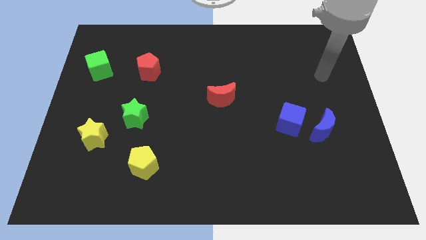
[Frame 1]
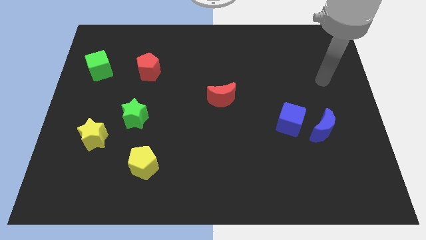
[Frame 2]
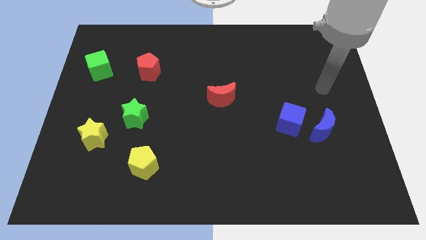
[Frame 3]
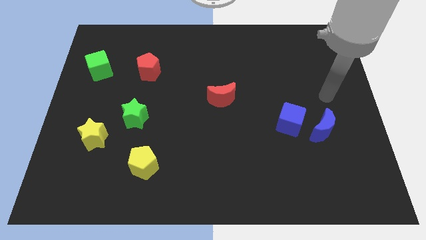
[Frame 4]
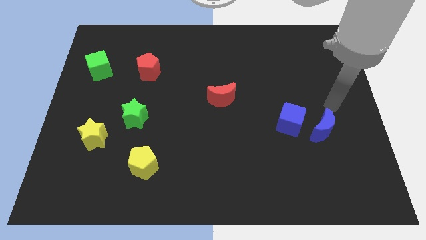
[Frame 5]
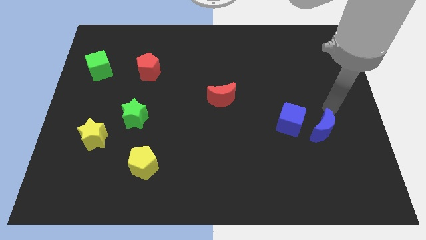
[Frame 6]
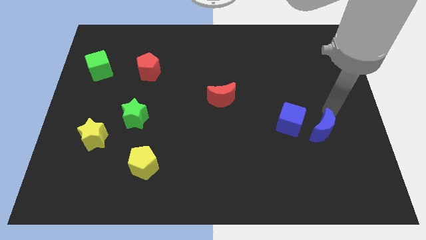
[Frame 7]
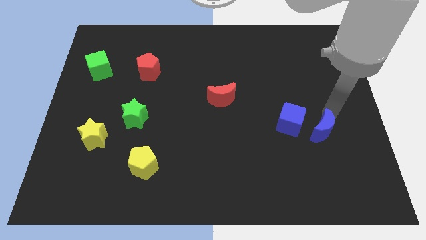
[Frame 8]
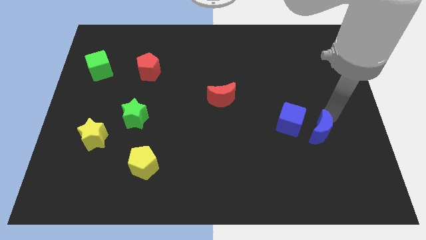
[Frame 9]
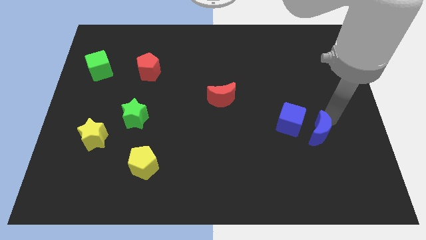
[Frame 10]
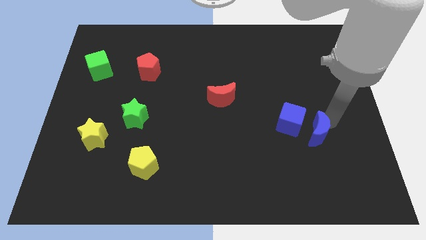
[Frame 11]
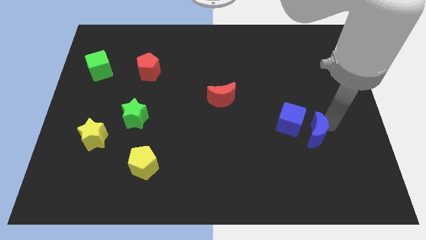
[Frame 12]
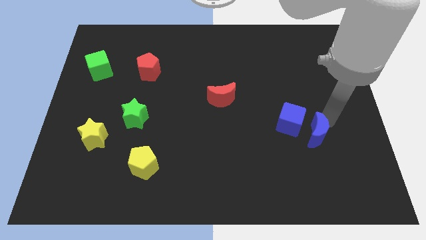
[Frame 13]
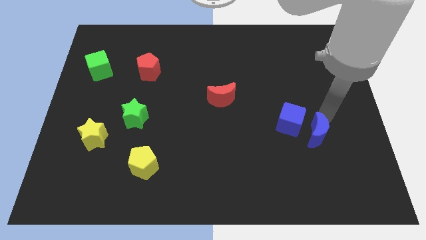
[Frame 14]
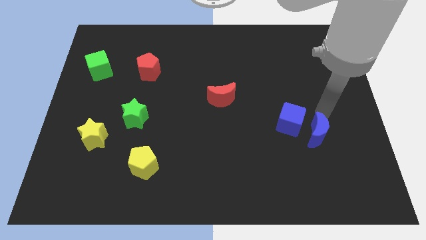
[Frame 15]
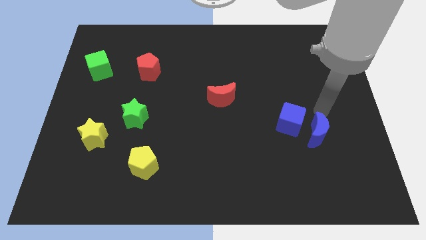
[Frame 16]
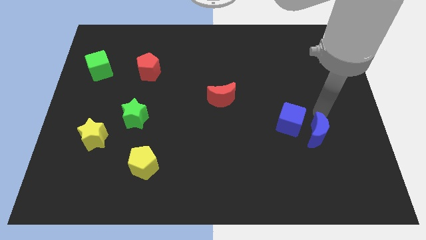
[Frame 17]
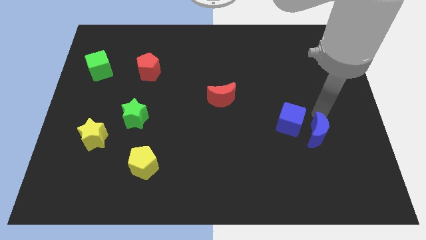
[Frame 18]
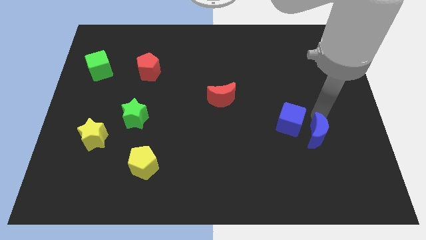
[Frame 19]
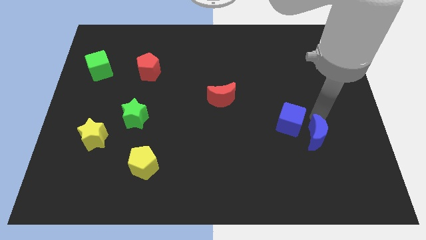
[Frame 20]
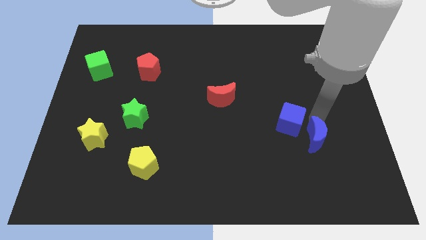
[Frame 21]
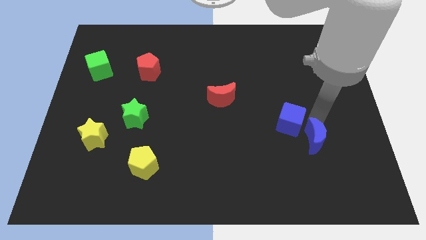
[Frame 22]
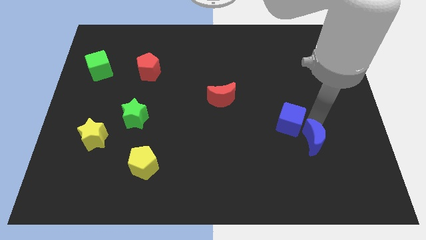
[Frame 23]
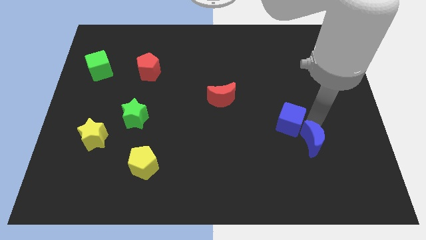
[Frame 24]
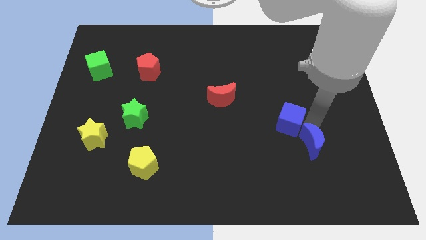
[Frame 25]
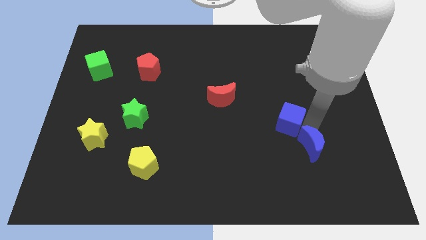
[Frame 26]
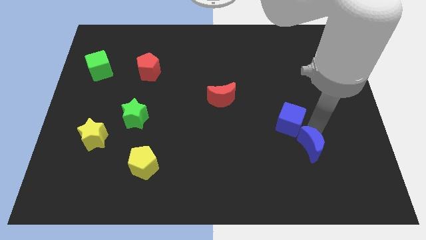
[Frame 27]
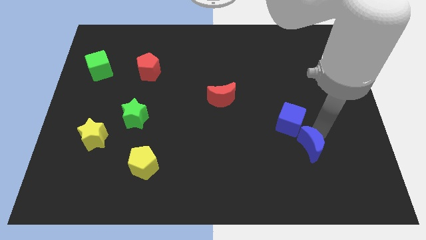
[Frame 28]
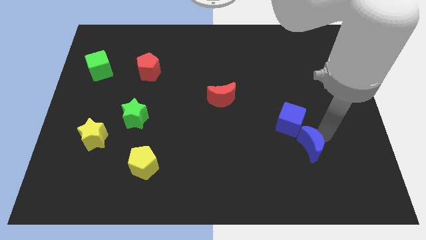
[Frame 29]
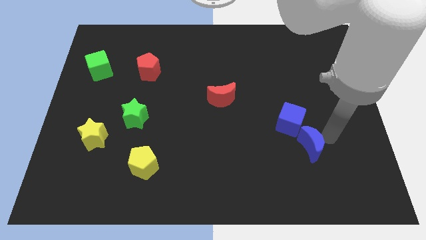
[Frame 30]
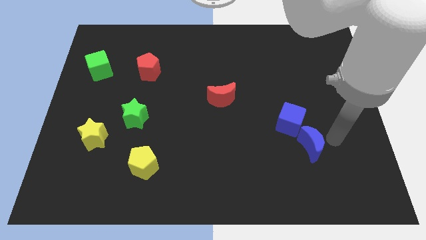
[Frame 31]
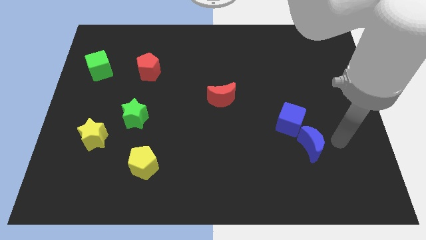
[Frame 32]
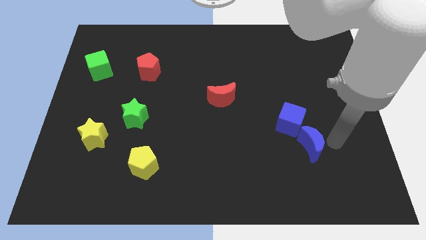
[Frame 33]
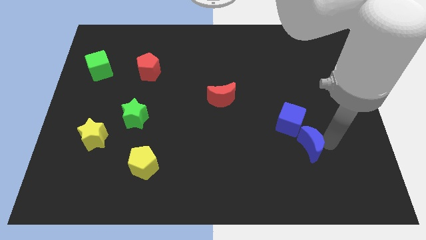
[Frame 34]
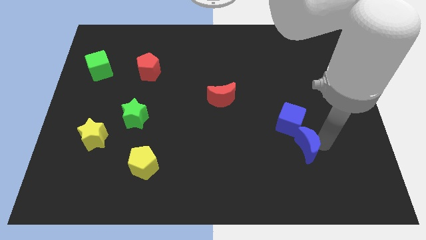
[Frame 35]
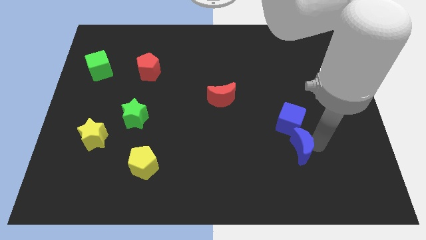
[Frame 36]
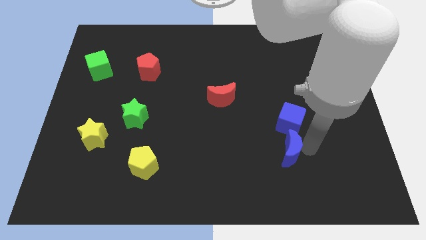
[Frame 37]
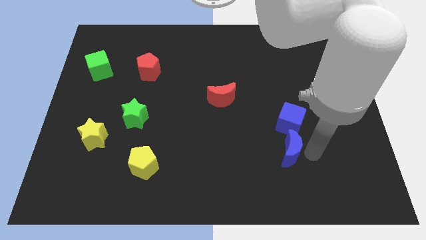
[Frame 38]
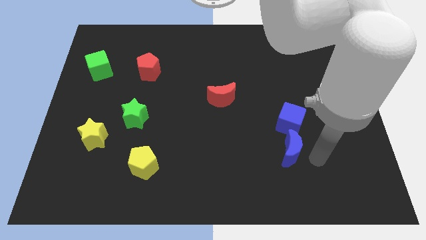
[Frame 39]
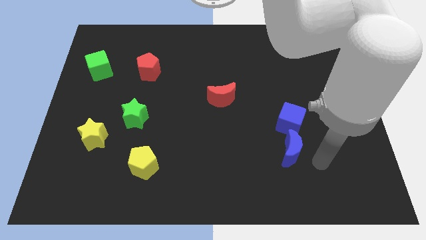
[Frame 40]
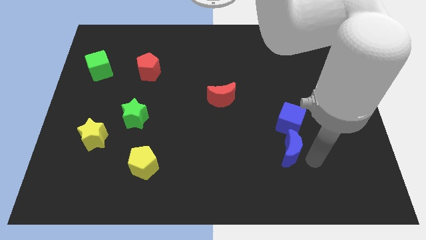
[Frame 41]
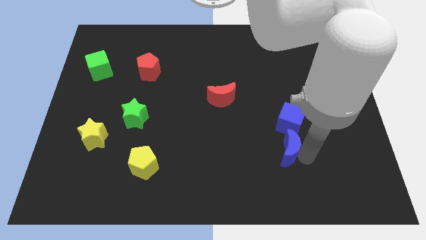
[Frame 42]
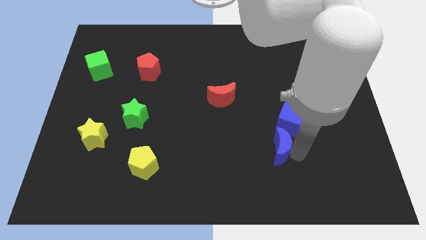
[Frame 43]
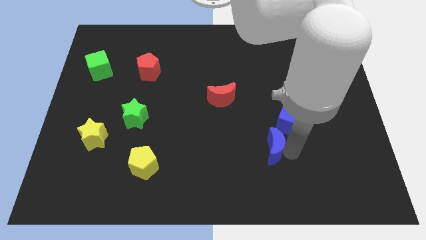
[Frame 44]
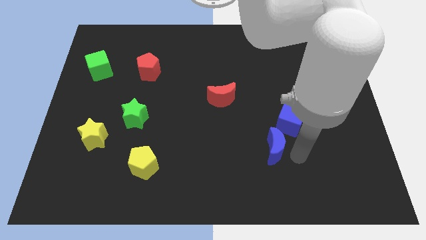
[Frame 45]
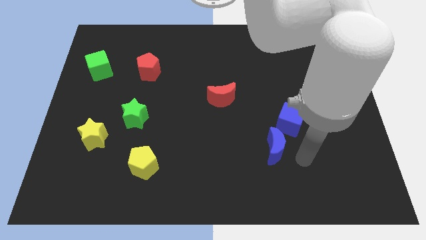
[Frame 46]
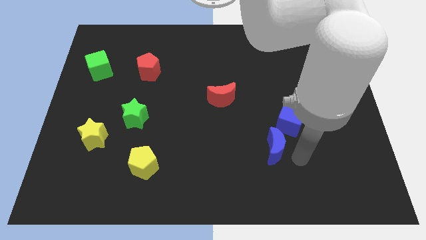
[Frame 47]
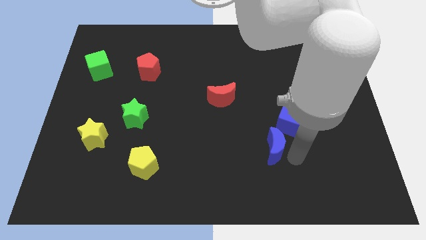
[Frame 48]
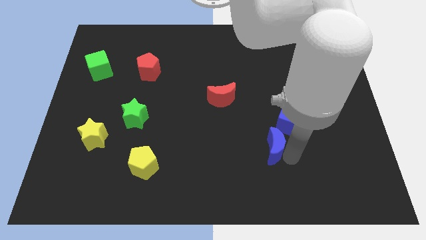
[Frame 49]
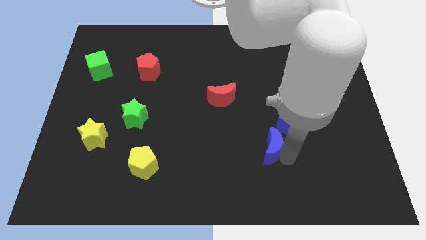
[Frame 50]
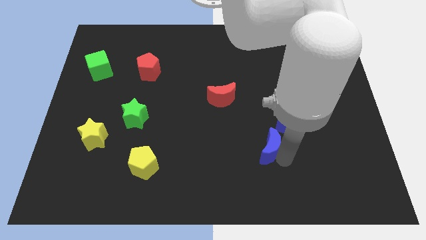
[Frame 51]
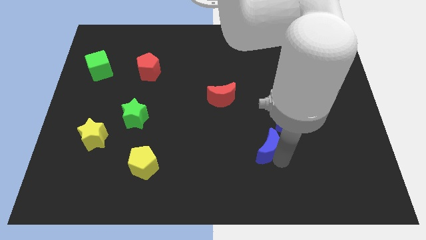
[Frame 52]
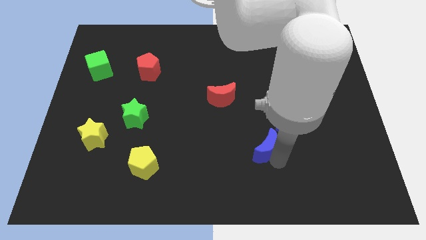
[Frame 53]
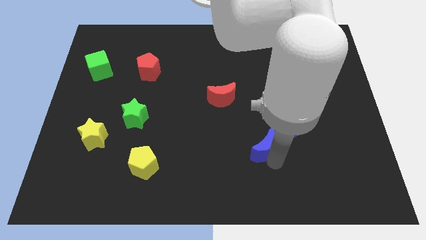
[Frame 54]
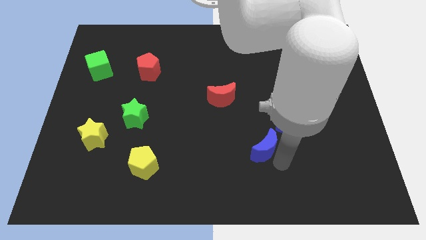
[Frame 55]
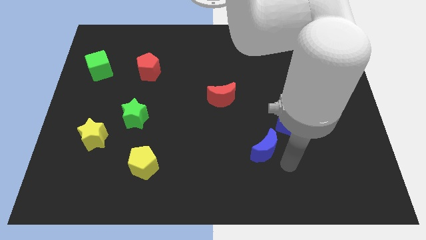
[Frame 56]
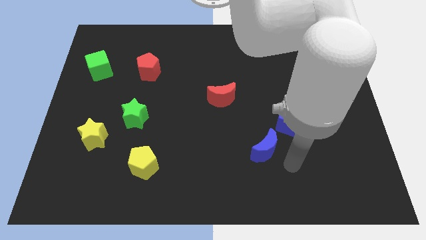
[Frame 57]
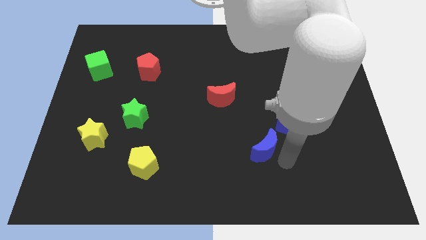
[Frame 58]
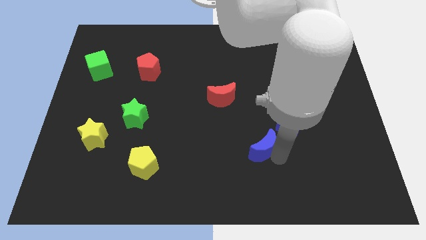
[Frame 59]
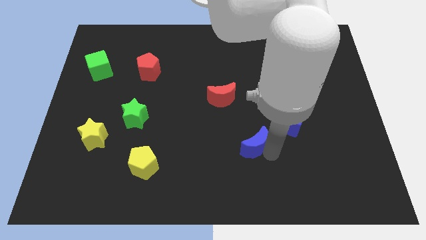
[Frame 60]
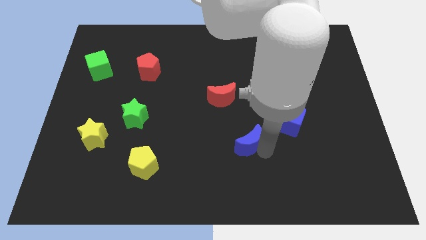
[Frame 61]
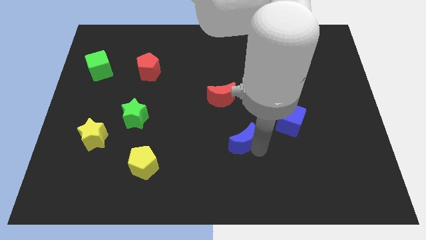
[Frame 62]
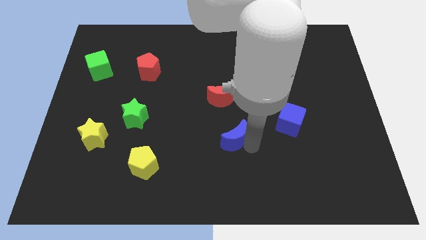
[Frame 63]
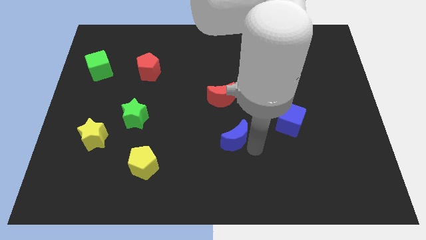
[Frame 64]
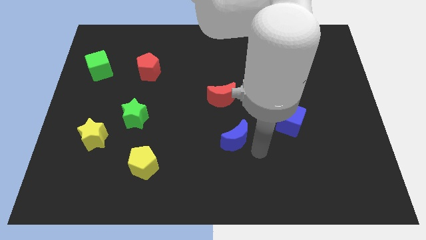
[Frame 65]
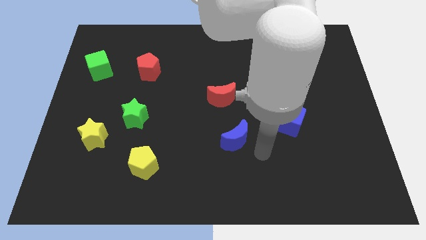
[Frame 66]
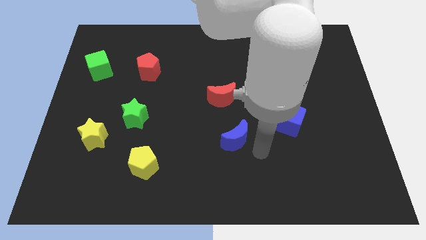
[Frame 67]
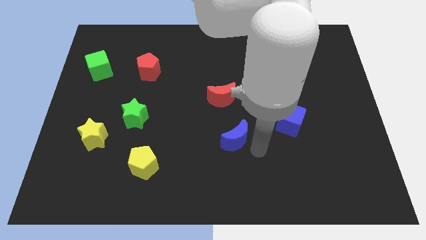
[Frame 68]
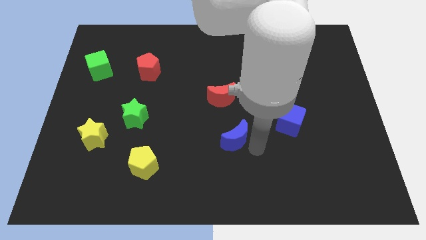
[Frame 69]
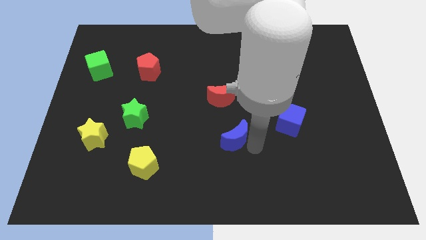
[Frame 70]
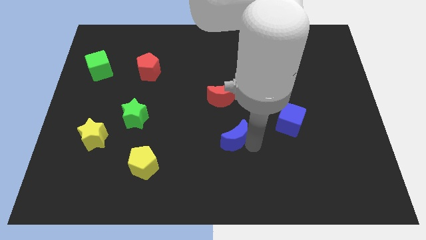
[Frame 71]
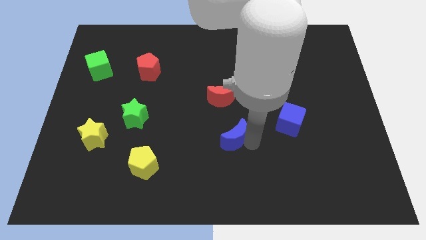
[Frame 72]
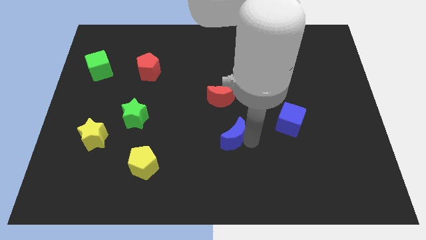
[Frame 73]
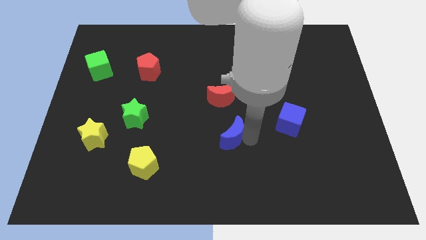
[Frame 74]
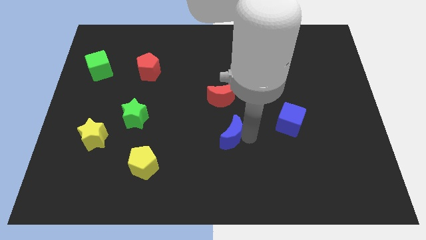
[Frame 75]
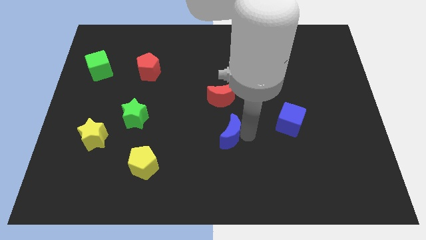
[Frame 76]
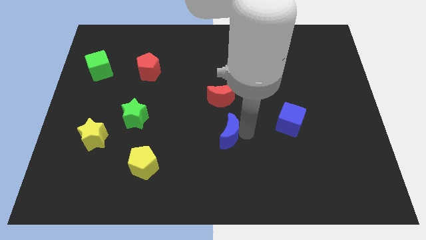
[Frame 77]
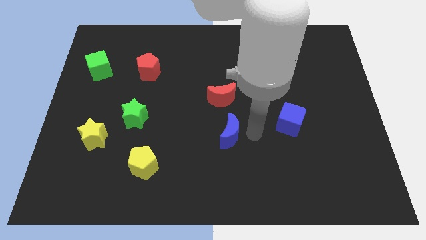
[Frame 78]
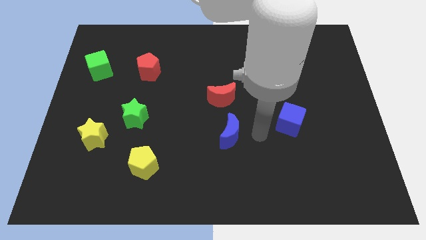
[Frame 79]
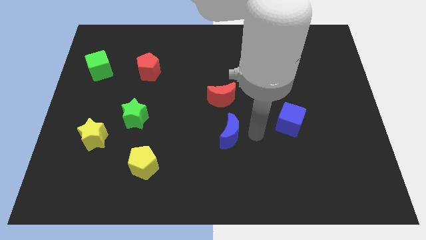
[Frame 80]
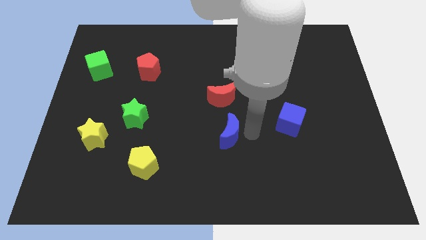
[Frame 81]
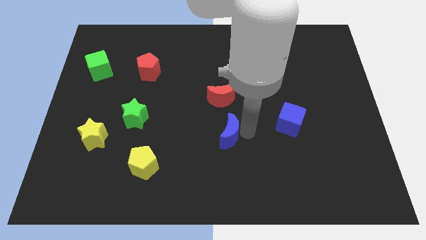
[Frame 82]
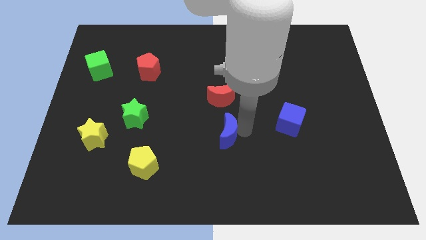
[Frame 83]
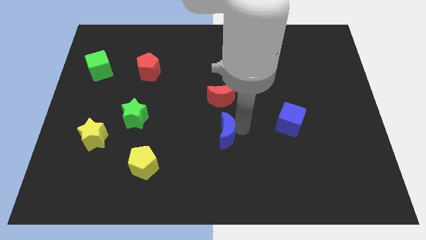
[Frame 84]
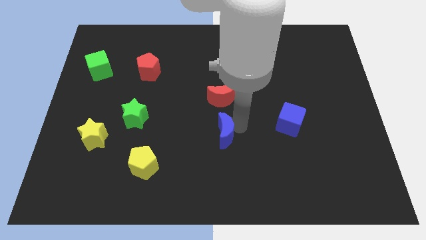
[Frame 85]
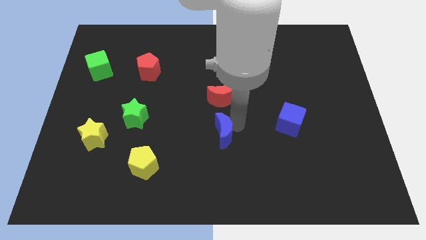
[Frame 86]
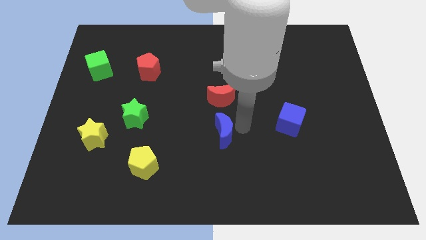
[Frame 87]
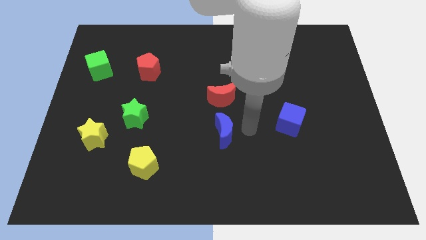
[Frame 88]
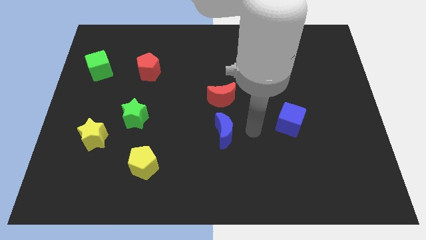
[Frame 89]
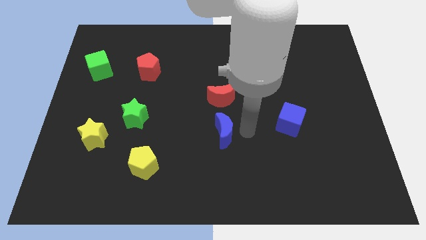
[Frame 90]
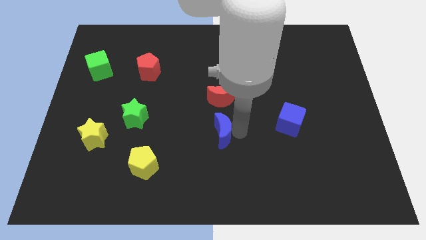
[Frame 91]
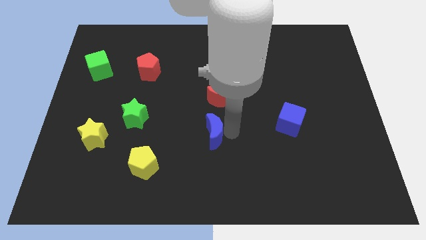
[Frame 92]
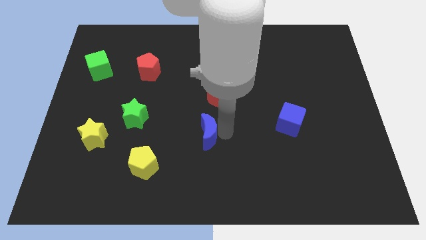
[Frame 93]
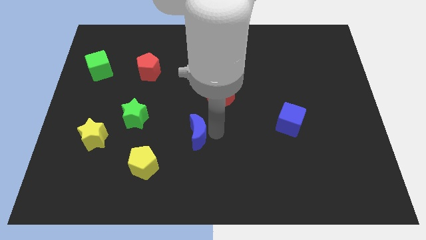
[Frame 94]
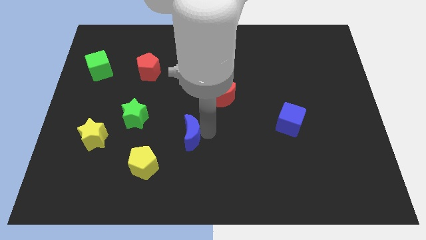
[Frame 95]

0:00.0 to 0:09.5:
put the blue moon to the top right of the yellow pentagon
